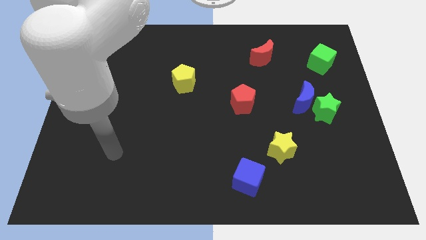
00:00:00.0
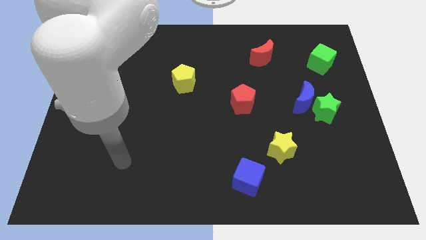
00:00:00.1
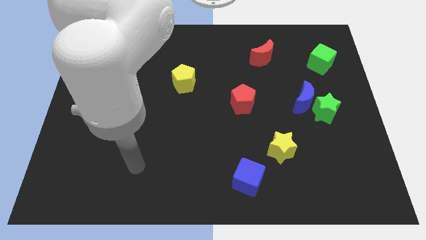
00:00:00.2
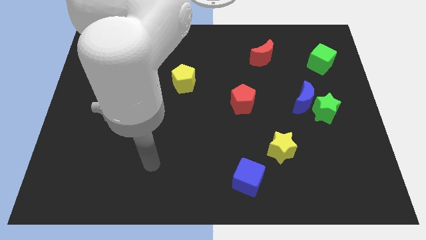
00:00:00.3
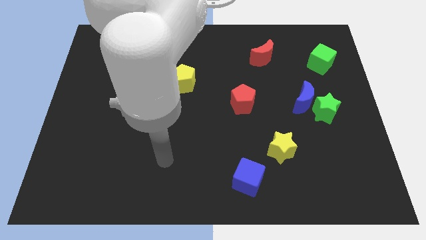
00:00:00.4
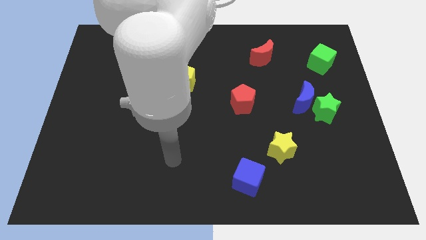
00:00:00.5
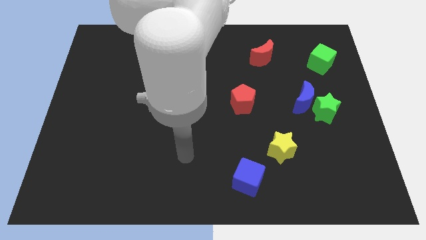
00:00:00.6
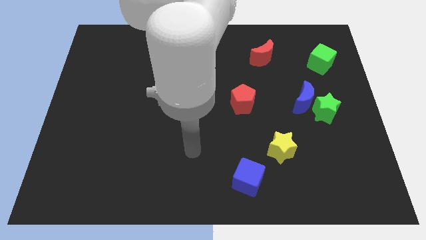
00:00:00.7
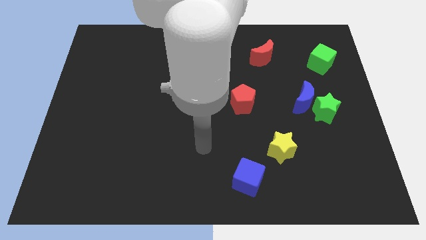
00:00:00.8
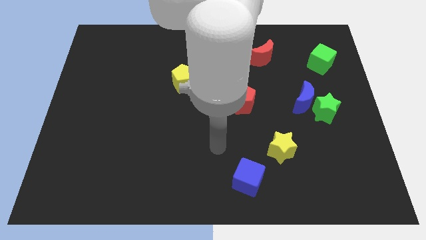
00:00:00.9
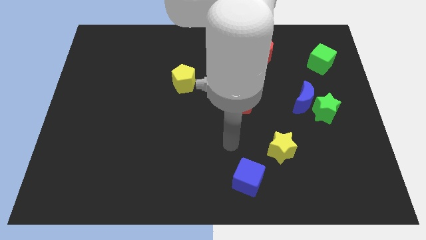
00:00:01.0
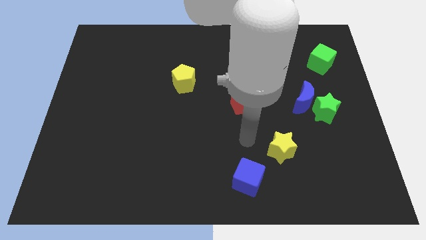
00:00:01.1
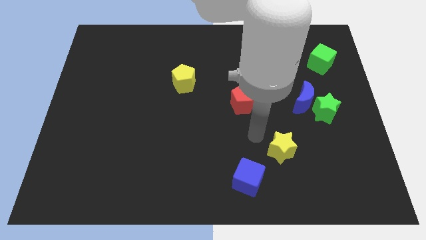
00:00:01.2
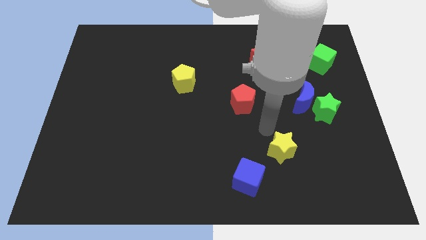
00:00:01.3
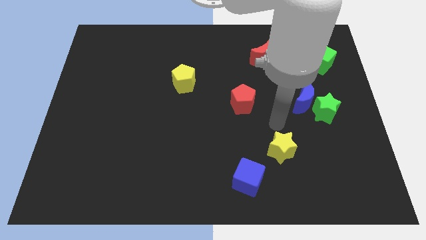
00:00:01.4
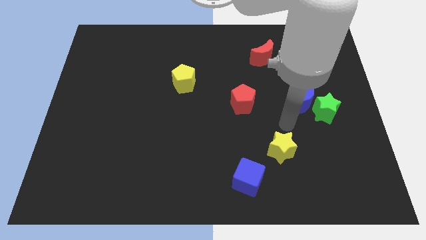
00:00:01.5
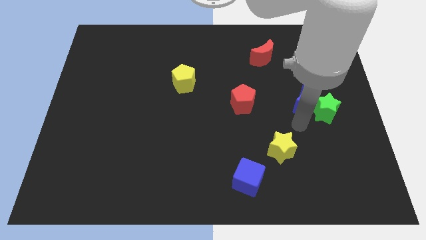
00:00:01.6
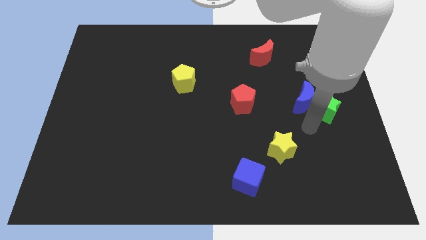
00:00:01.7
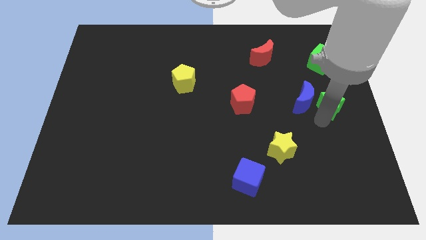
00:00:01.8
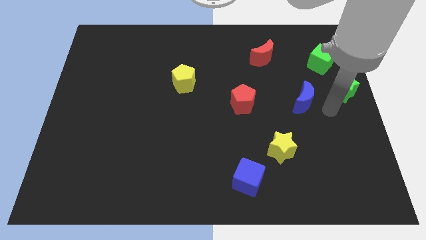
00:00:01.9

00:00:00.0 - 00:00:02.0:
move the blue moon away from the green star

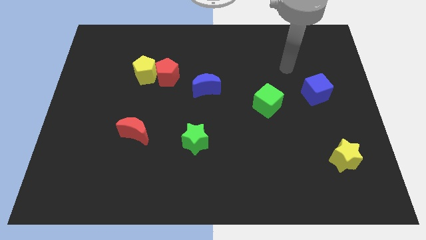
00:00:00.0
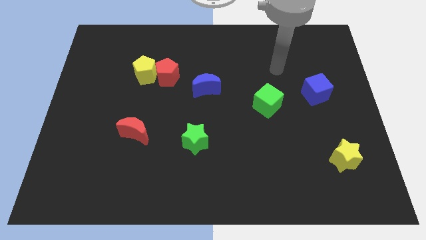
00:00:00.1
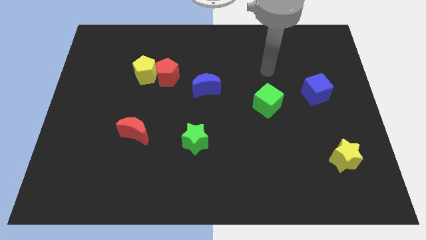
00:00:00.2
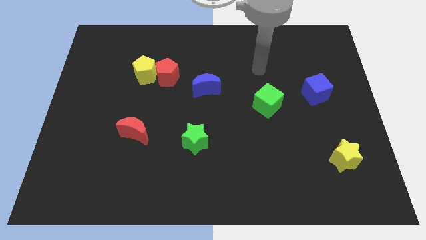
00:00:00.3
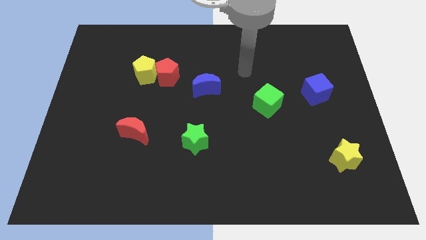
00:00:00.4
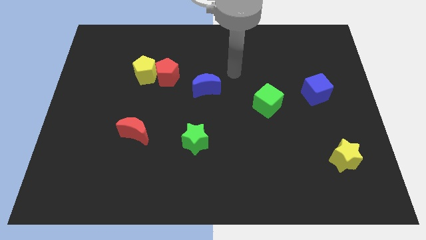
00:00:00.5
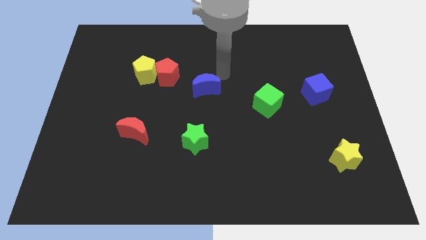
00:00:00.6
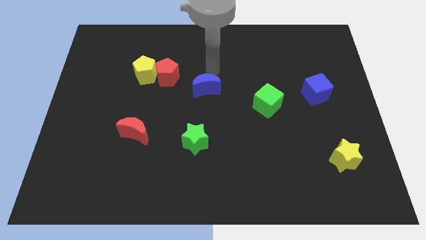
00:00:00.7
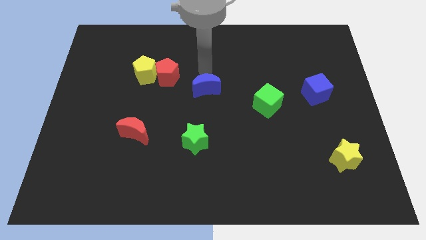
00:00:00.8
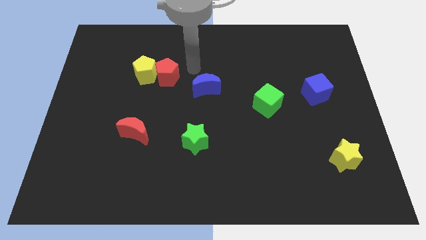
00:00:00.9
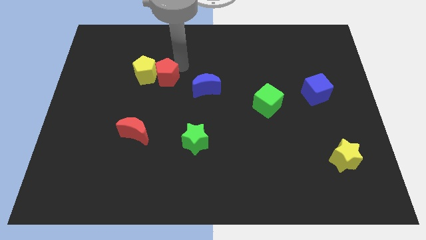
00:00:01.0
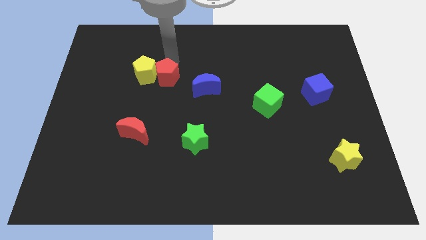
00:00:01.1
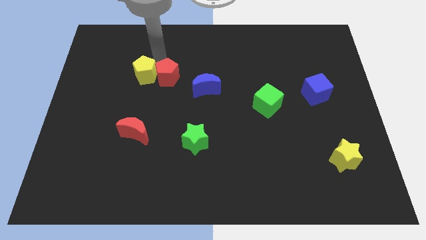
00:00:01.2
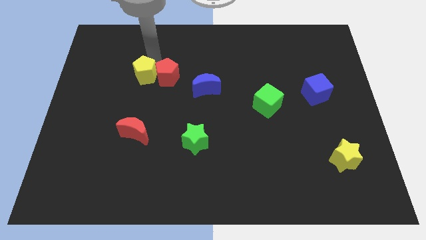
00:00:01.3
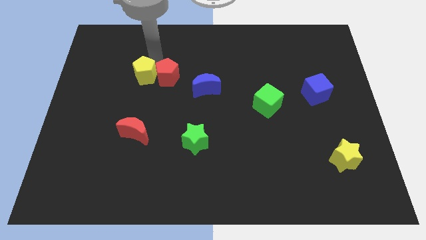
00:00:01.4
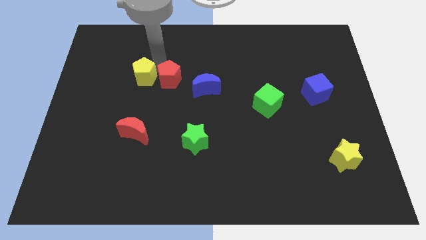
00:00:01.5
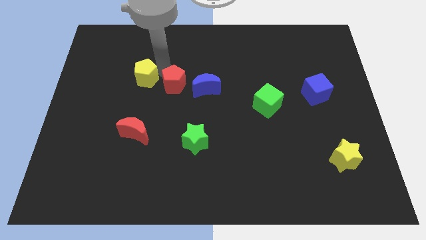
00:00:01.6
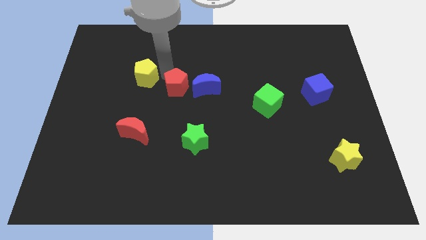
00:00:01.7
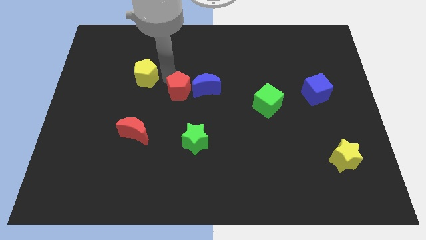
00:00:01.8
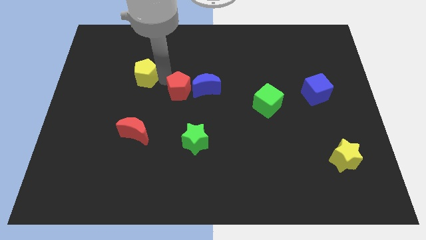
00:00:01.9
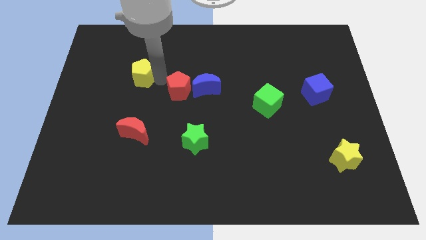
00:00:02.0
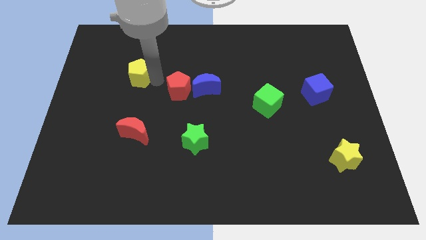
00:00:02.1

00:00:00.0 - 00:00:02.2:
pull the red pentagon apart from the yellow pentagon

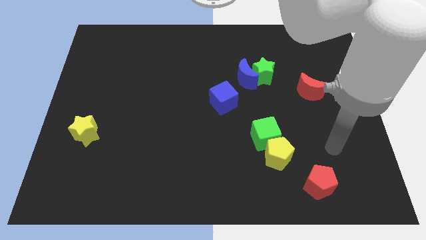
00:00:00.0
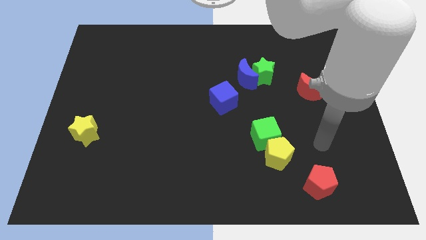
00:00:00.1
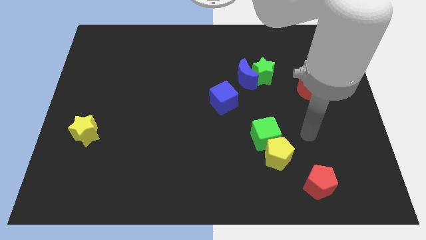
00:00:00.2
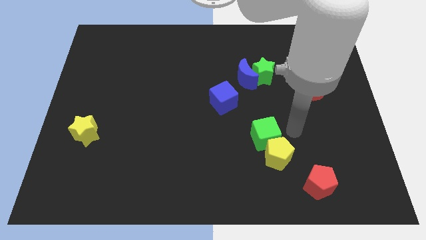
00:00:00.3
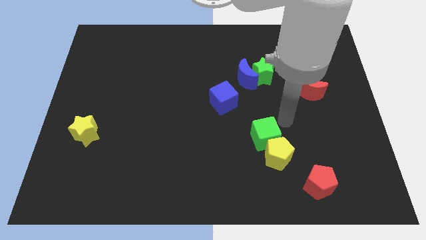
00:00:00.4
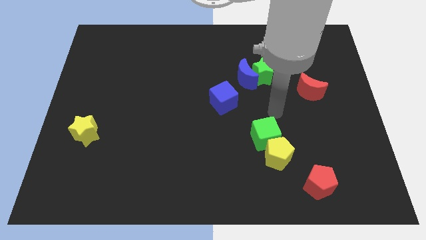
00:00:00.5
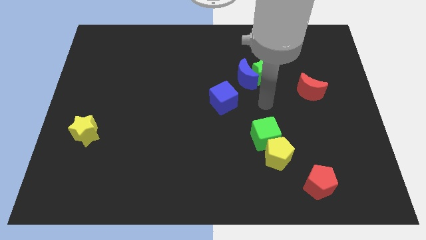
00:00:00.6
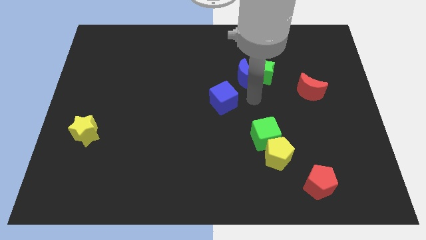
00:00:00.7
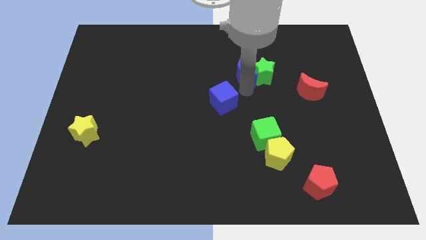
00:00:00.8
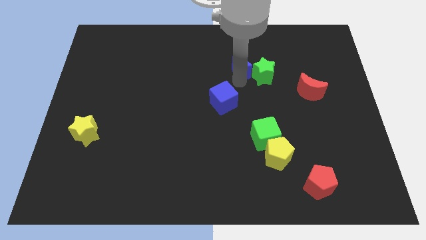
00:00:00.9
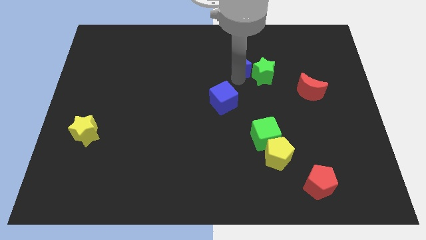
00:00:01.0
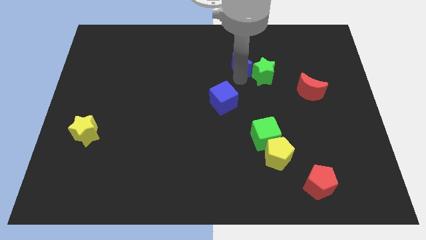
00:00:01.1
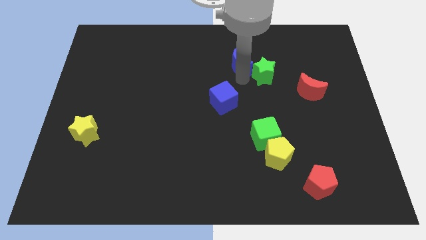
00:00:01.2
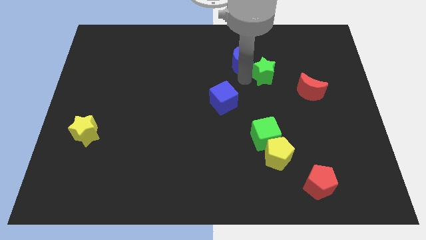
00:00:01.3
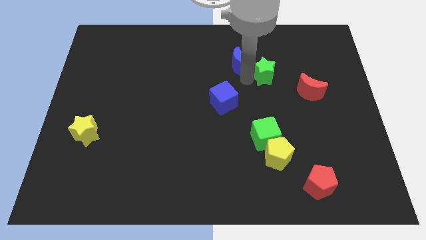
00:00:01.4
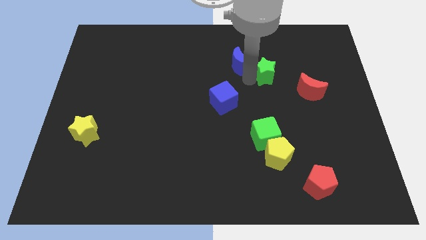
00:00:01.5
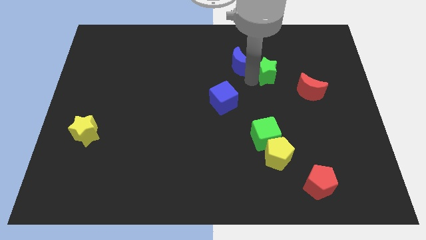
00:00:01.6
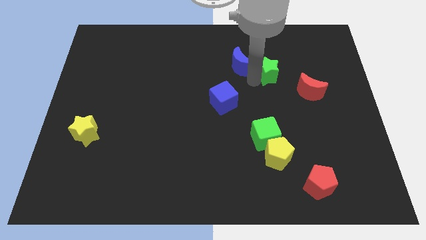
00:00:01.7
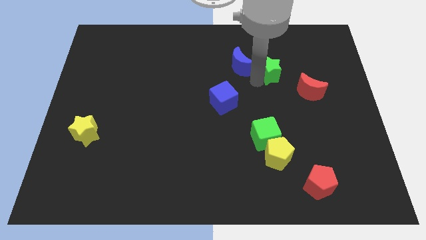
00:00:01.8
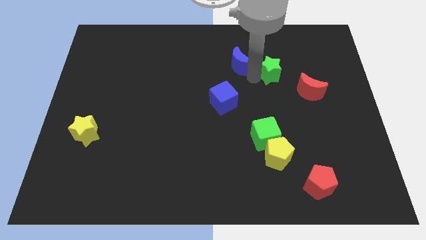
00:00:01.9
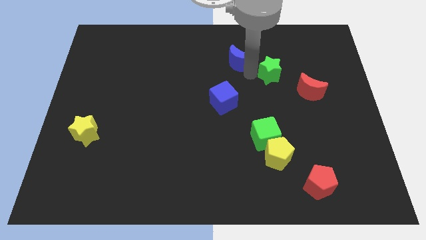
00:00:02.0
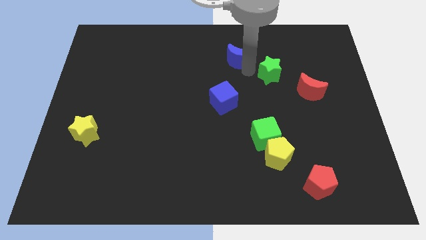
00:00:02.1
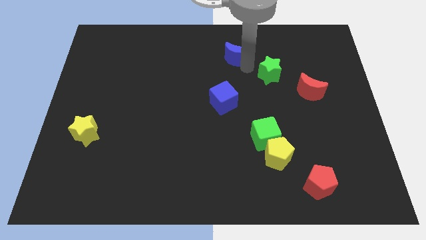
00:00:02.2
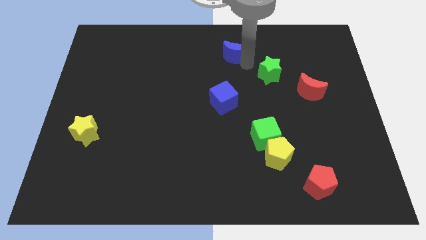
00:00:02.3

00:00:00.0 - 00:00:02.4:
pull the green star apart from the blue moon

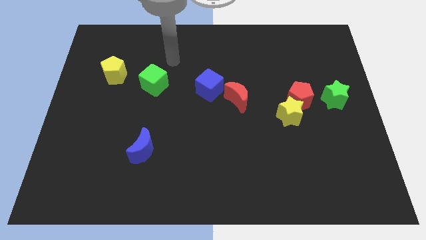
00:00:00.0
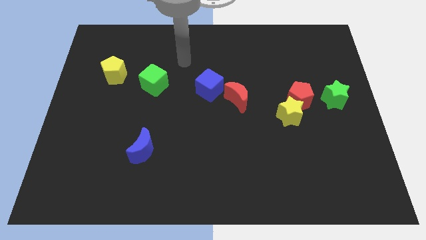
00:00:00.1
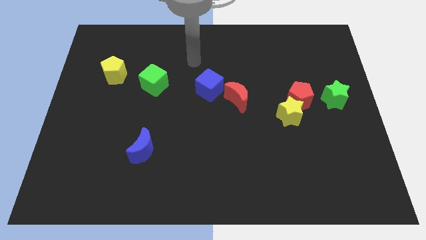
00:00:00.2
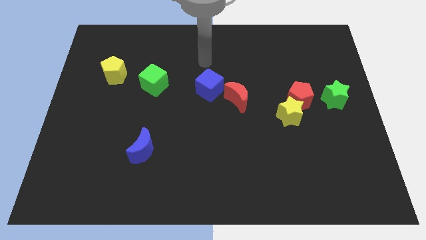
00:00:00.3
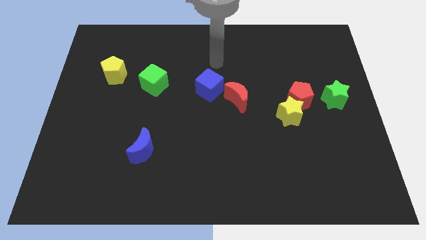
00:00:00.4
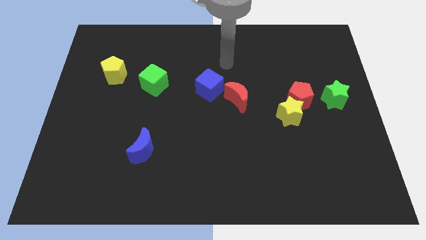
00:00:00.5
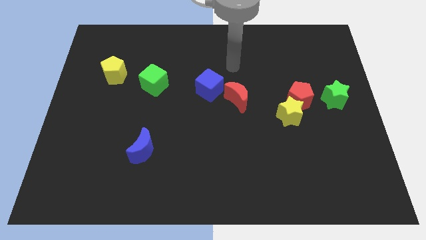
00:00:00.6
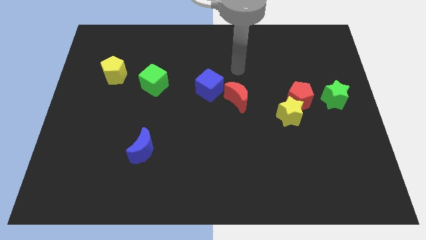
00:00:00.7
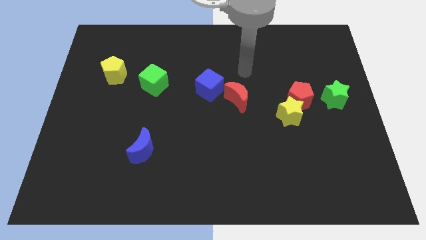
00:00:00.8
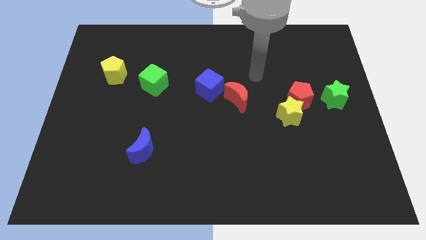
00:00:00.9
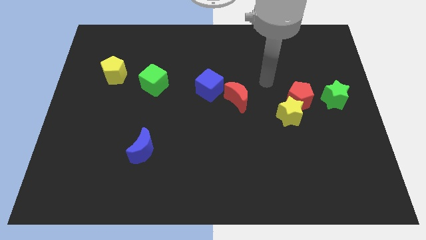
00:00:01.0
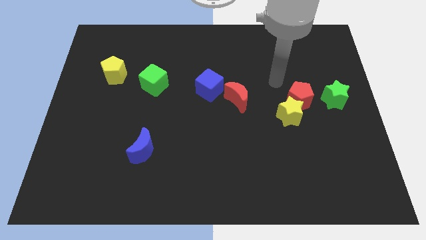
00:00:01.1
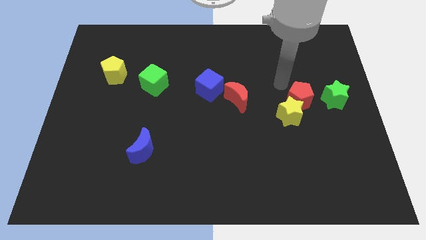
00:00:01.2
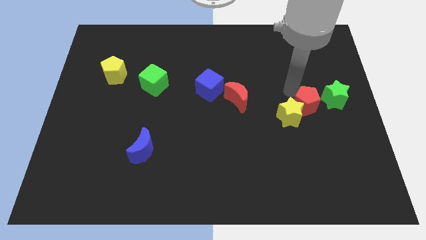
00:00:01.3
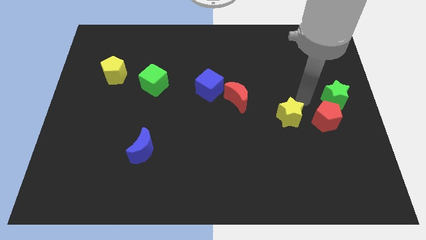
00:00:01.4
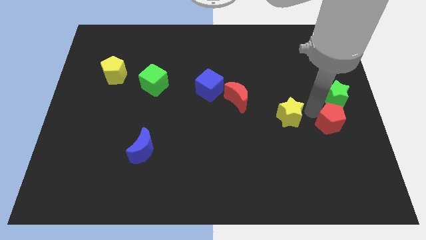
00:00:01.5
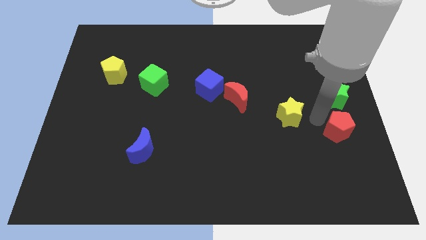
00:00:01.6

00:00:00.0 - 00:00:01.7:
separate the yellow star from the red pentagon

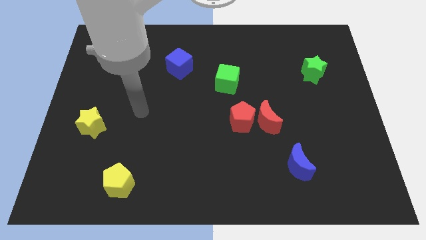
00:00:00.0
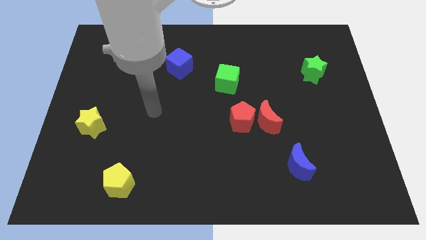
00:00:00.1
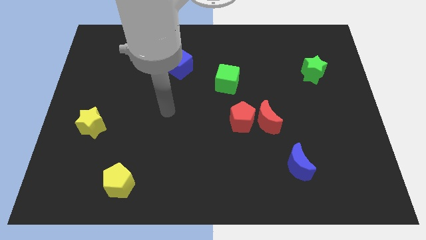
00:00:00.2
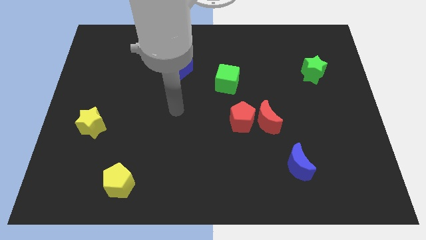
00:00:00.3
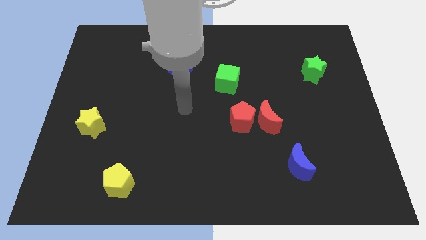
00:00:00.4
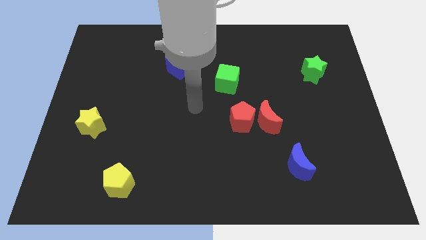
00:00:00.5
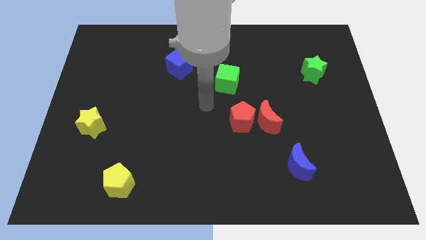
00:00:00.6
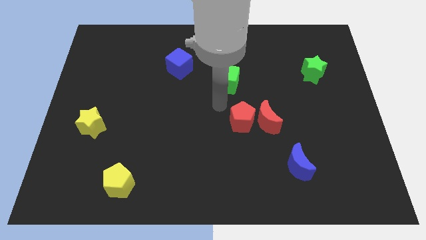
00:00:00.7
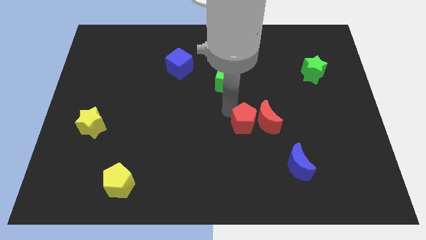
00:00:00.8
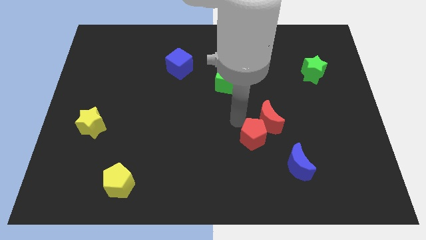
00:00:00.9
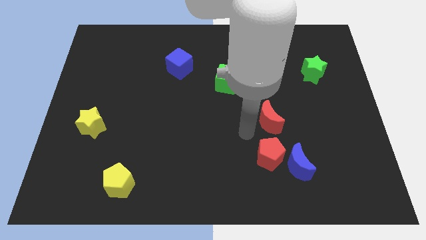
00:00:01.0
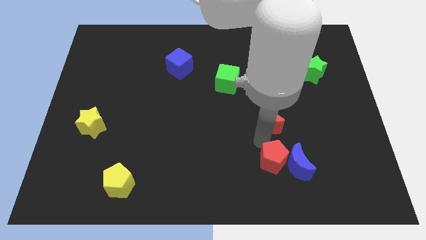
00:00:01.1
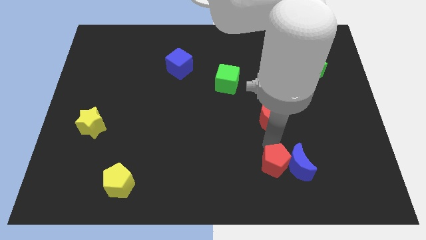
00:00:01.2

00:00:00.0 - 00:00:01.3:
pull the red moon apart from the red pentagon
